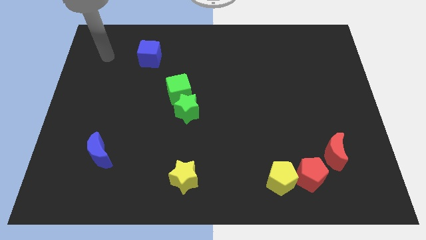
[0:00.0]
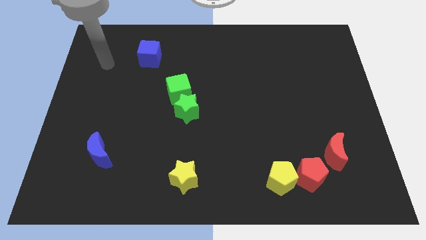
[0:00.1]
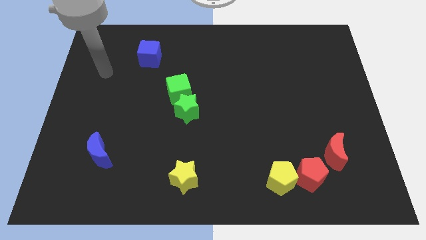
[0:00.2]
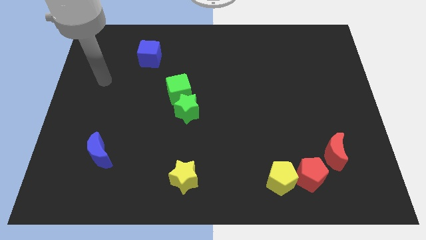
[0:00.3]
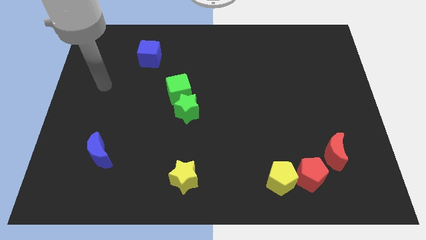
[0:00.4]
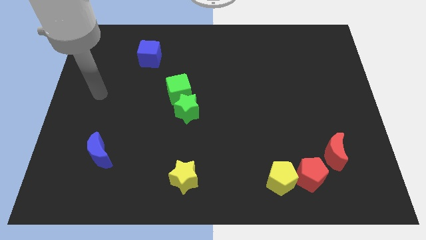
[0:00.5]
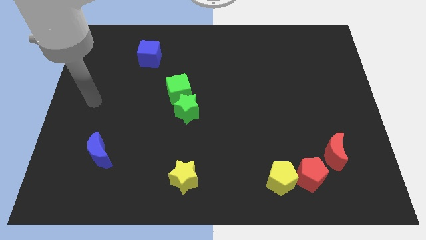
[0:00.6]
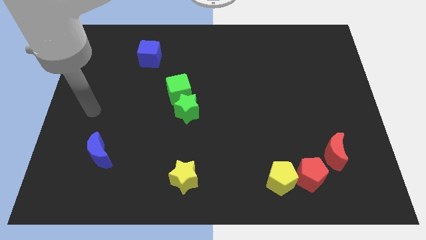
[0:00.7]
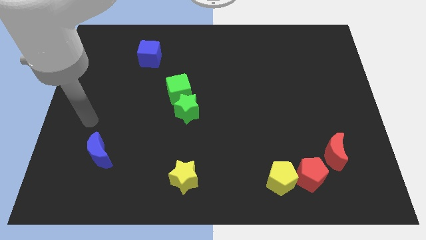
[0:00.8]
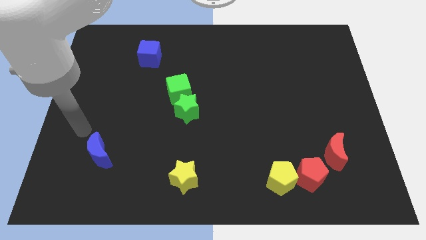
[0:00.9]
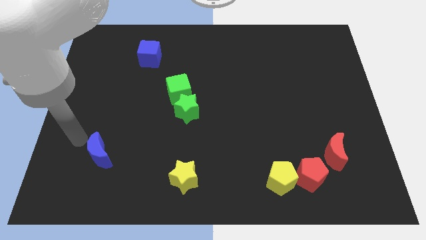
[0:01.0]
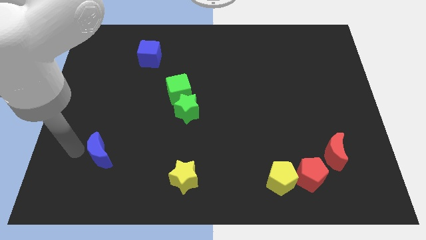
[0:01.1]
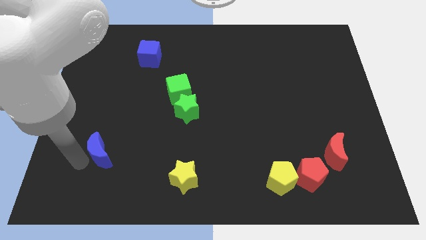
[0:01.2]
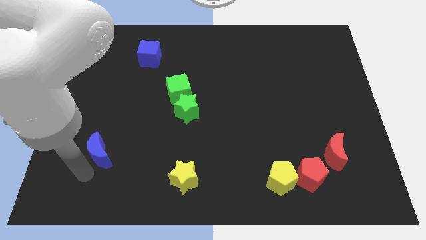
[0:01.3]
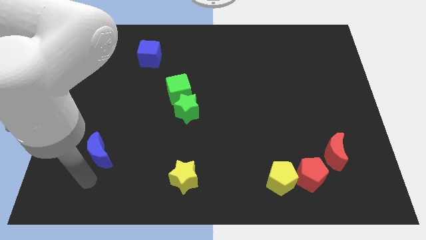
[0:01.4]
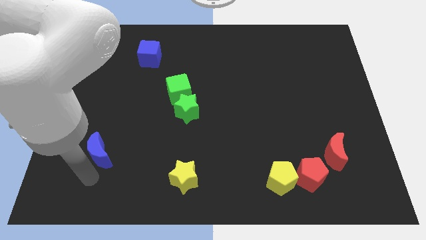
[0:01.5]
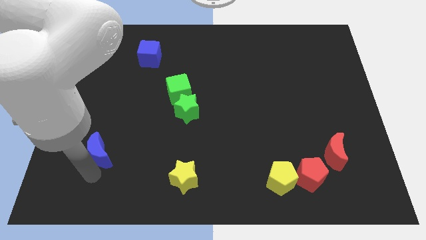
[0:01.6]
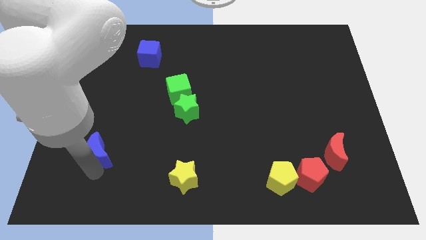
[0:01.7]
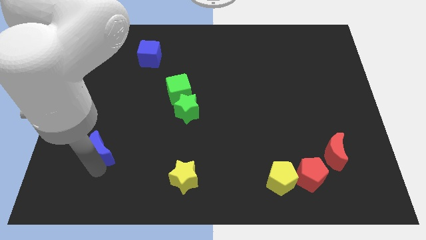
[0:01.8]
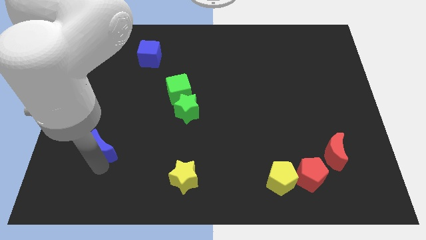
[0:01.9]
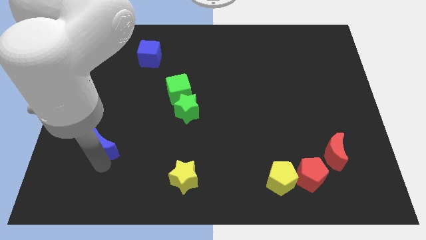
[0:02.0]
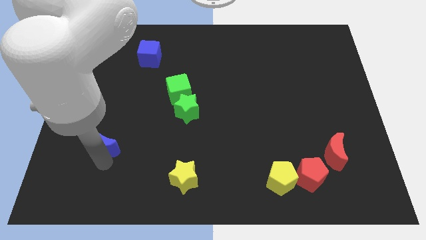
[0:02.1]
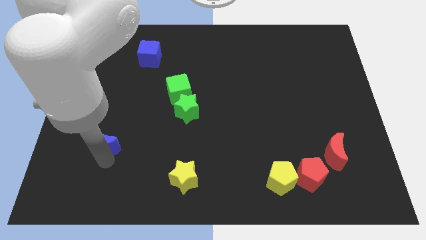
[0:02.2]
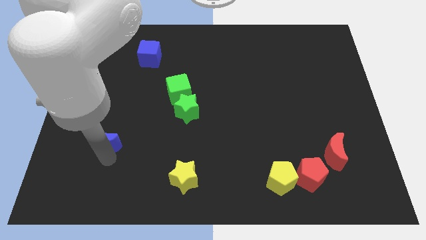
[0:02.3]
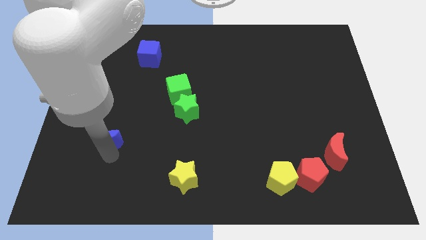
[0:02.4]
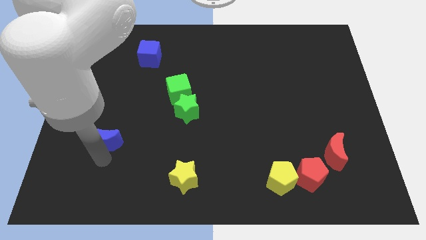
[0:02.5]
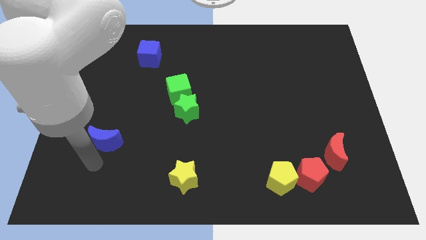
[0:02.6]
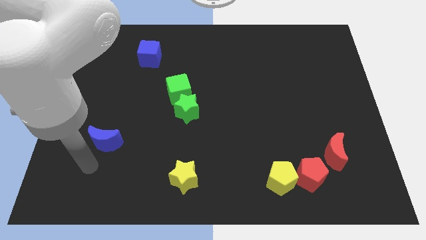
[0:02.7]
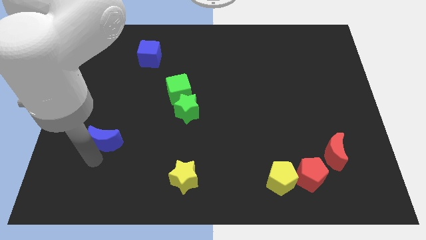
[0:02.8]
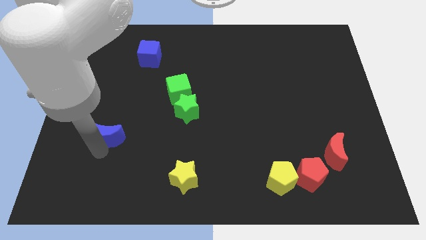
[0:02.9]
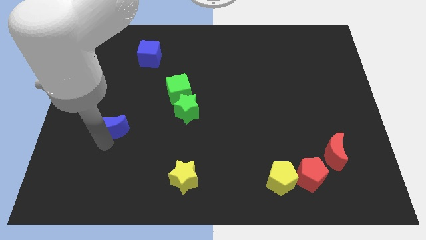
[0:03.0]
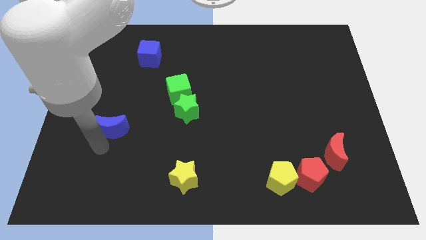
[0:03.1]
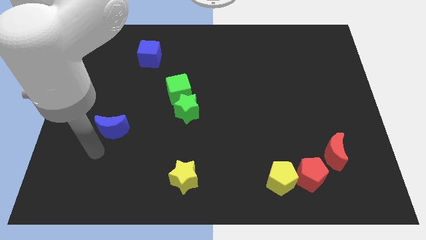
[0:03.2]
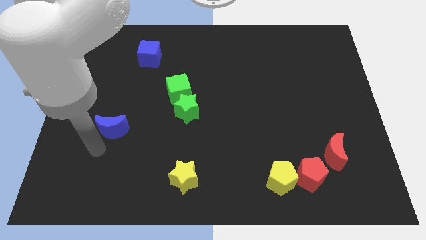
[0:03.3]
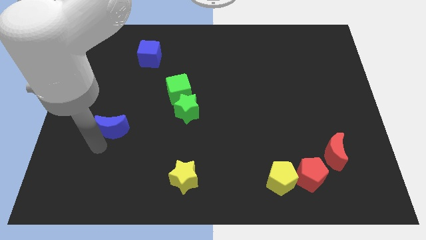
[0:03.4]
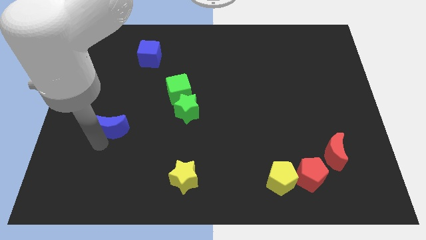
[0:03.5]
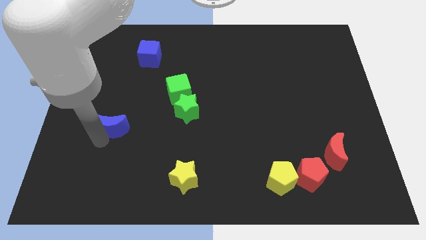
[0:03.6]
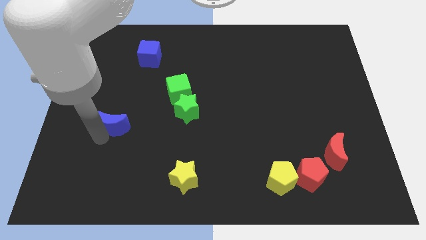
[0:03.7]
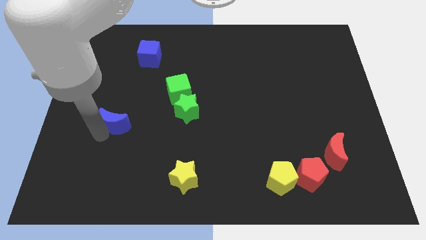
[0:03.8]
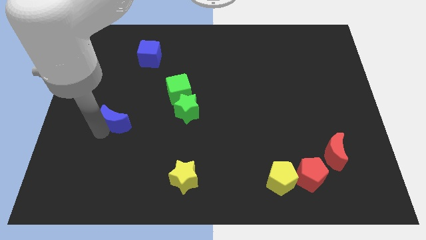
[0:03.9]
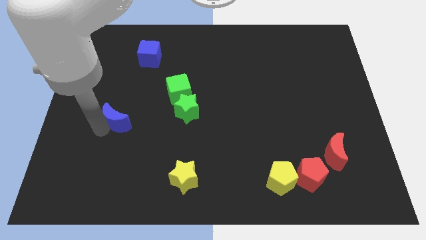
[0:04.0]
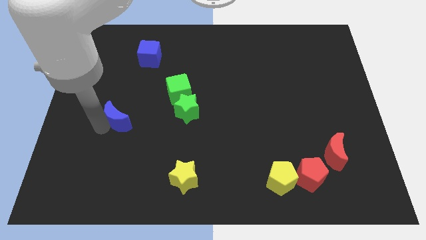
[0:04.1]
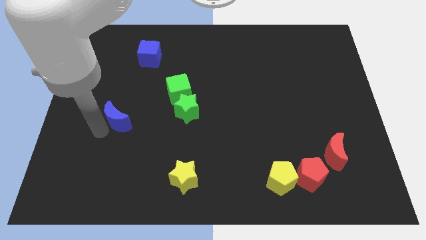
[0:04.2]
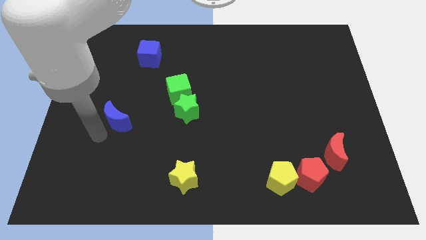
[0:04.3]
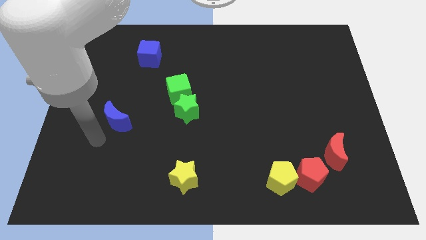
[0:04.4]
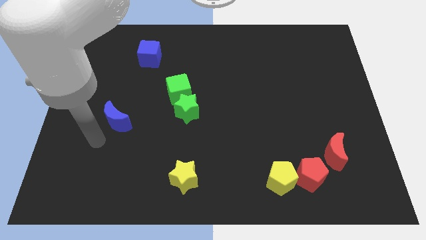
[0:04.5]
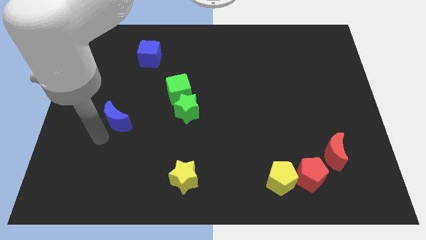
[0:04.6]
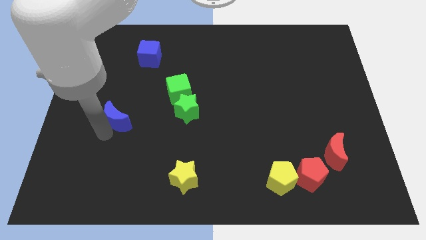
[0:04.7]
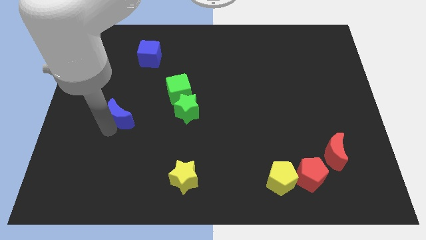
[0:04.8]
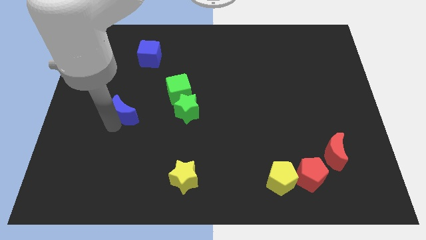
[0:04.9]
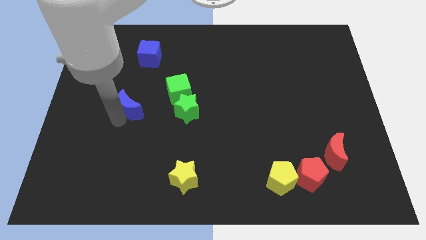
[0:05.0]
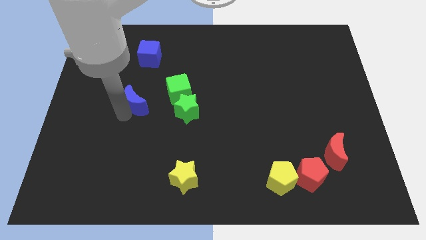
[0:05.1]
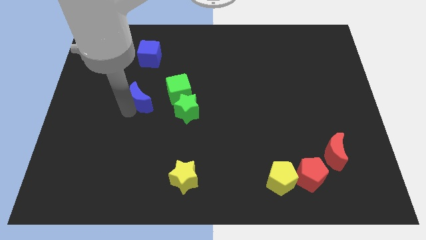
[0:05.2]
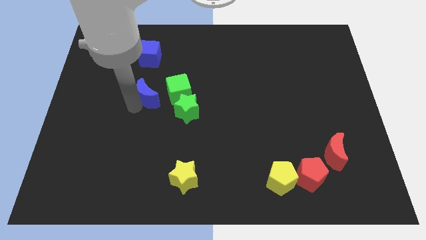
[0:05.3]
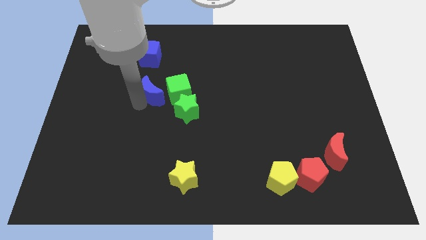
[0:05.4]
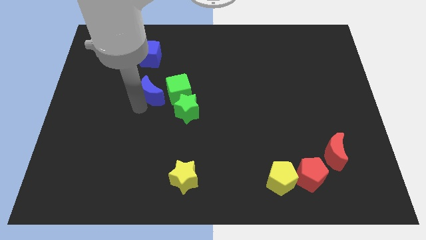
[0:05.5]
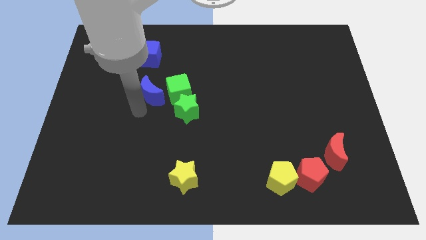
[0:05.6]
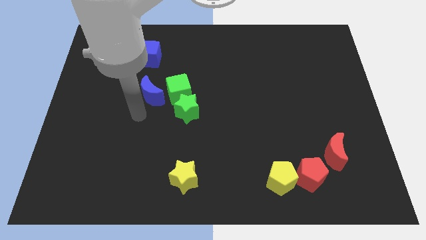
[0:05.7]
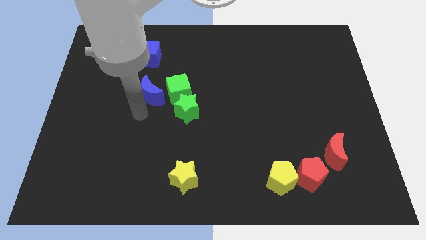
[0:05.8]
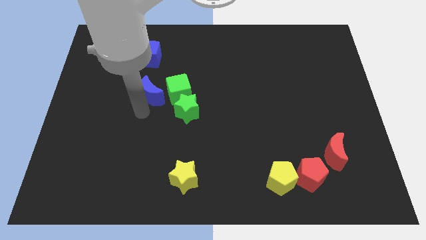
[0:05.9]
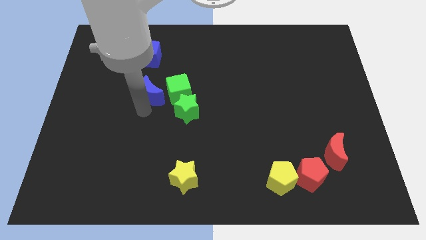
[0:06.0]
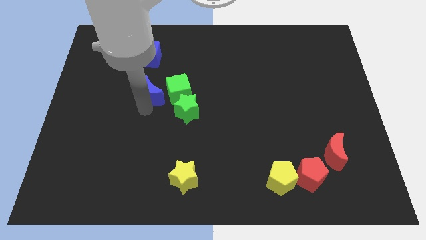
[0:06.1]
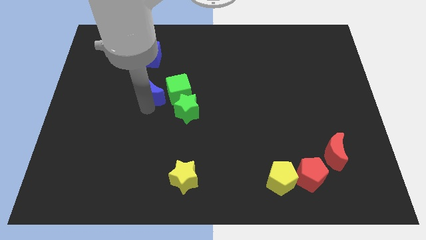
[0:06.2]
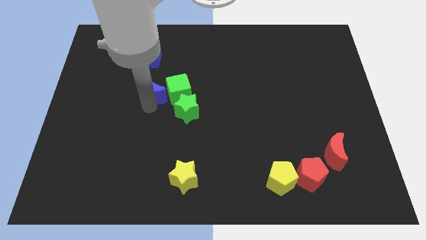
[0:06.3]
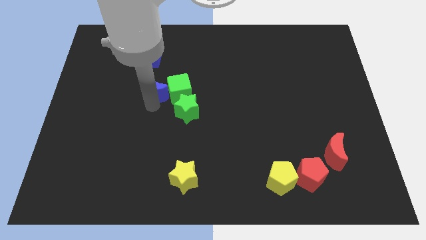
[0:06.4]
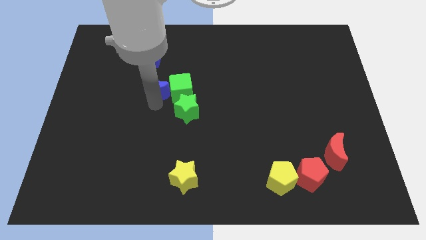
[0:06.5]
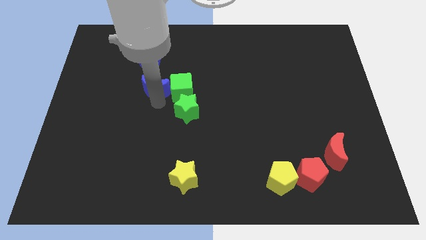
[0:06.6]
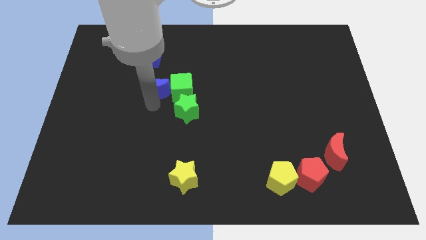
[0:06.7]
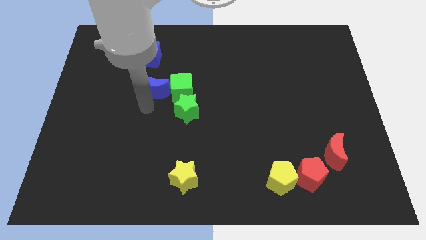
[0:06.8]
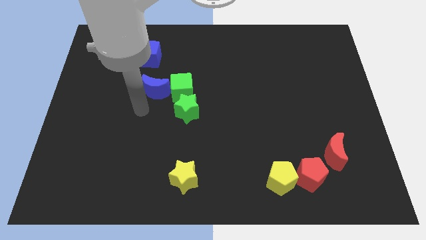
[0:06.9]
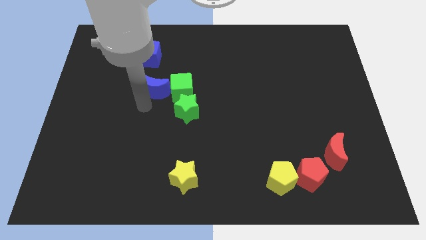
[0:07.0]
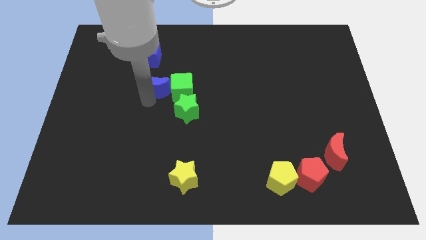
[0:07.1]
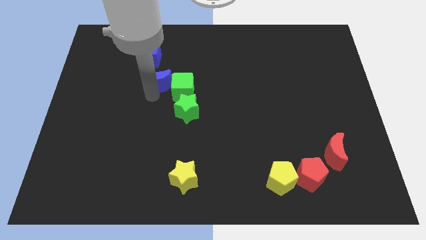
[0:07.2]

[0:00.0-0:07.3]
slide the blue moon diagonally up and to the right

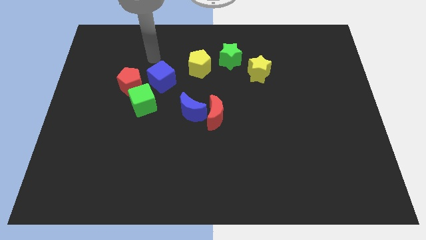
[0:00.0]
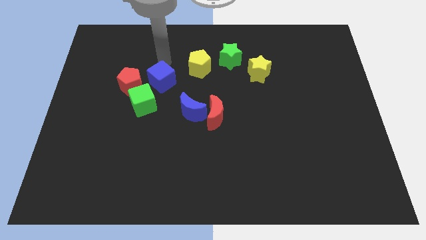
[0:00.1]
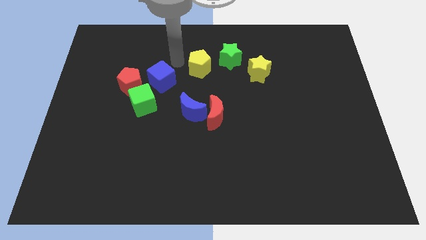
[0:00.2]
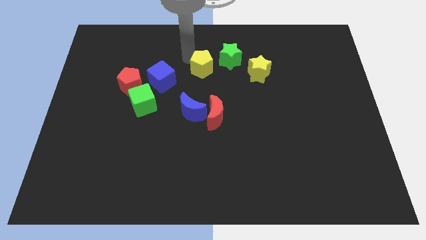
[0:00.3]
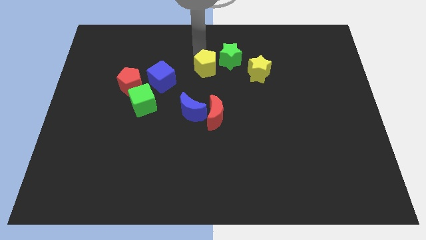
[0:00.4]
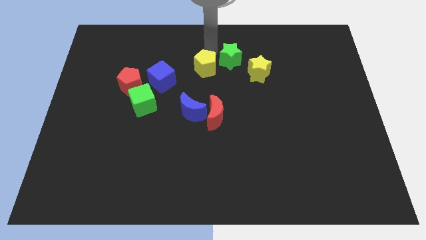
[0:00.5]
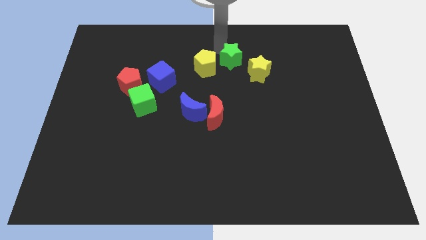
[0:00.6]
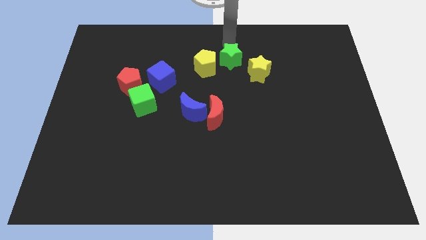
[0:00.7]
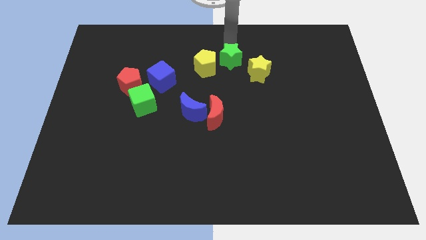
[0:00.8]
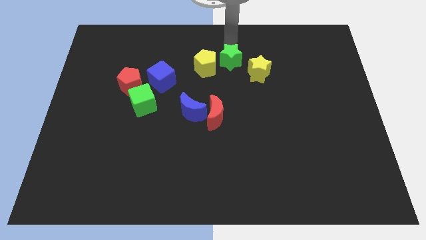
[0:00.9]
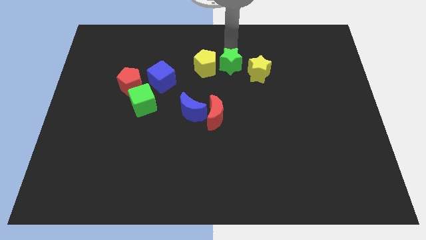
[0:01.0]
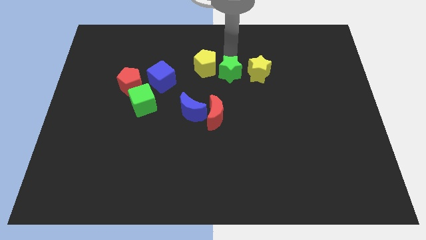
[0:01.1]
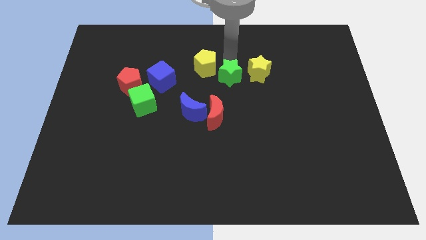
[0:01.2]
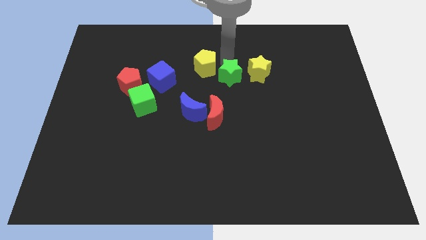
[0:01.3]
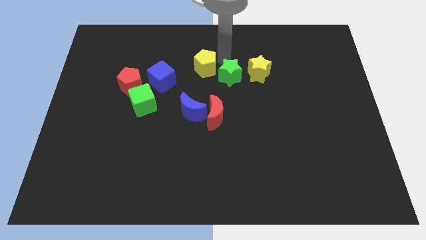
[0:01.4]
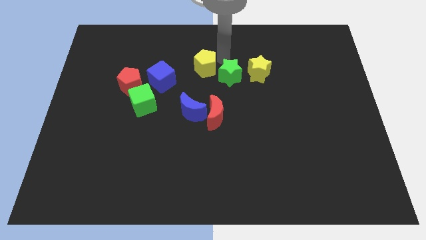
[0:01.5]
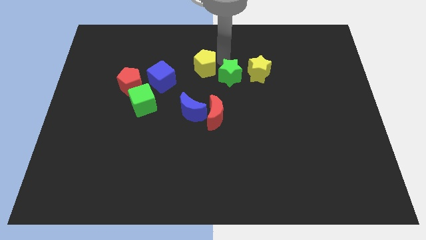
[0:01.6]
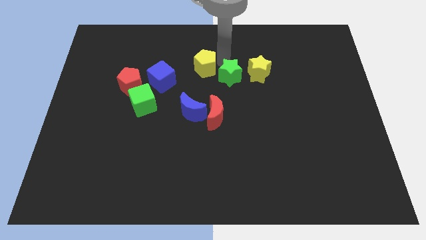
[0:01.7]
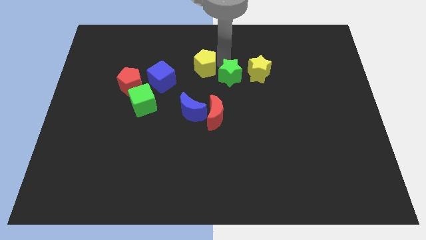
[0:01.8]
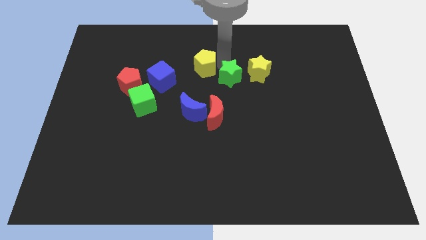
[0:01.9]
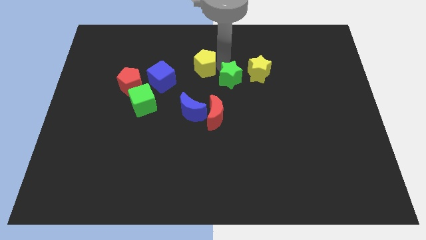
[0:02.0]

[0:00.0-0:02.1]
push the green star down a little
